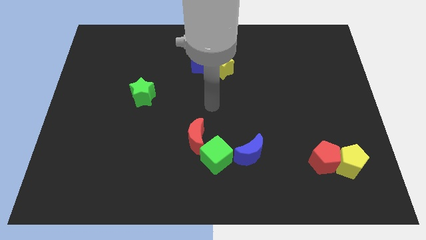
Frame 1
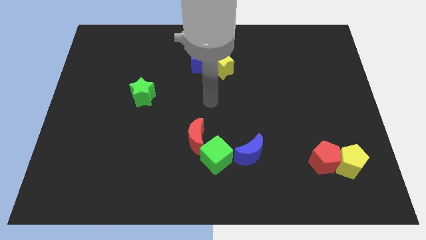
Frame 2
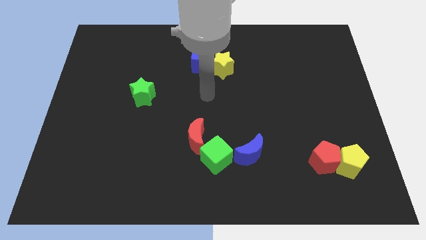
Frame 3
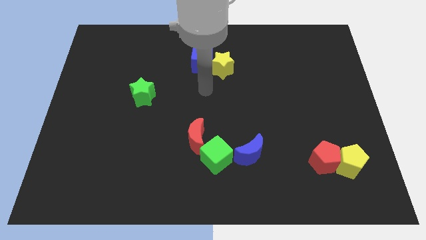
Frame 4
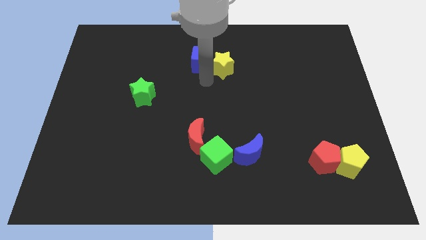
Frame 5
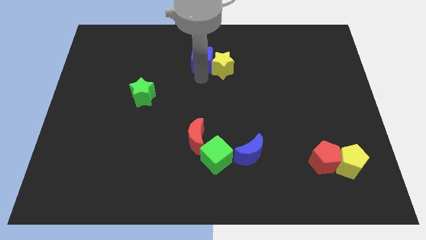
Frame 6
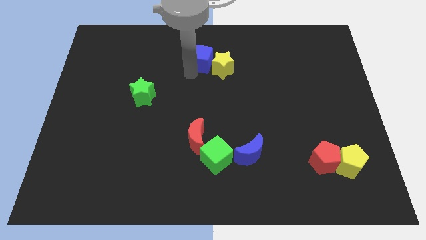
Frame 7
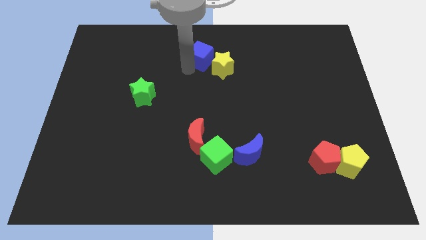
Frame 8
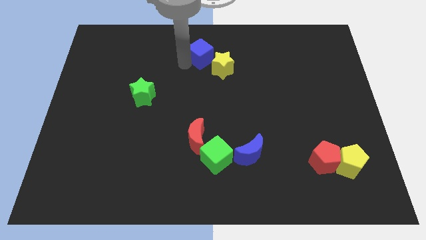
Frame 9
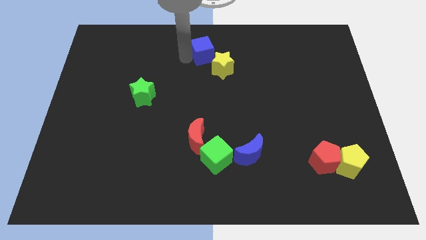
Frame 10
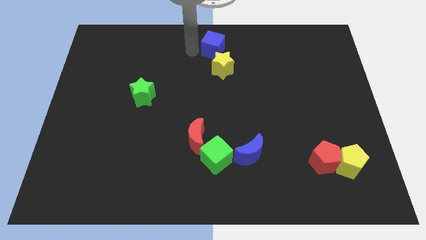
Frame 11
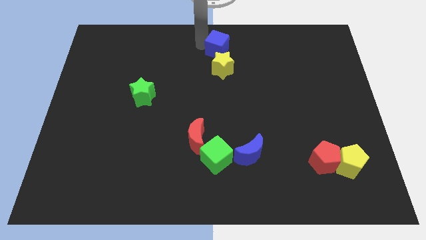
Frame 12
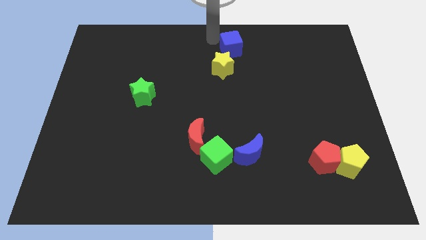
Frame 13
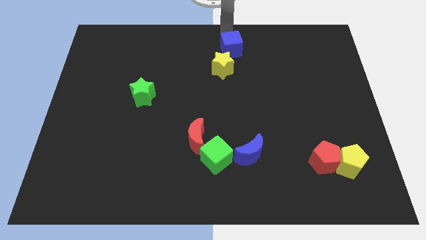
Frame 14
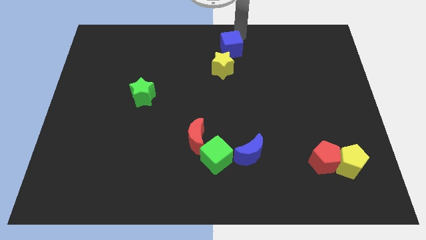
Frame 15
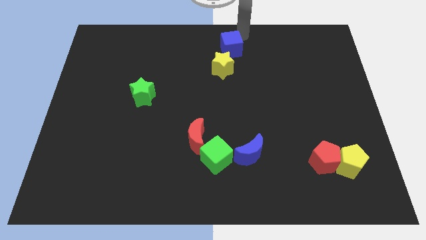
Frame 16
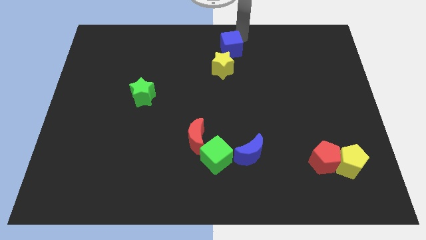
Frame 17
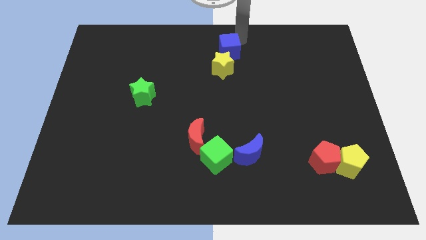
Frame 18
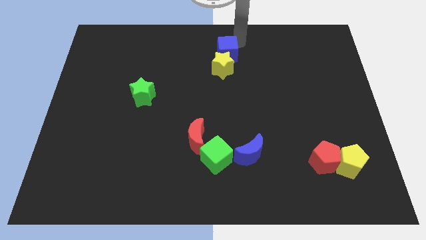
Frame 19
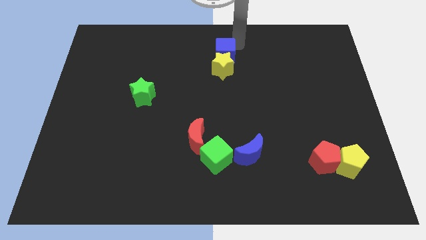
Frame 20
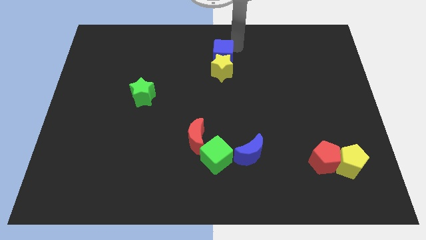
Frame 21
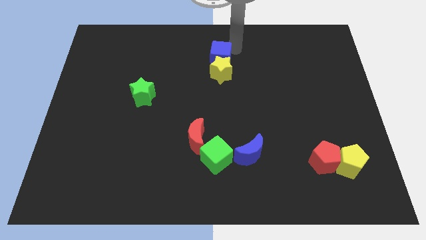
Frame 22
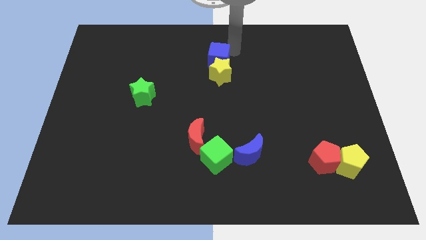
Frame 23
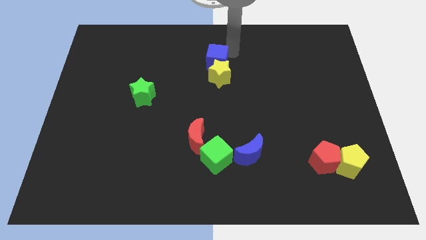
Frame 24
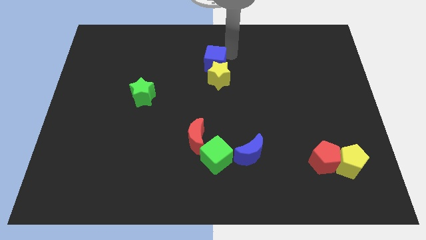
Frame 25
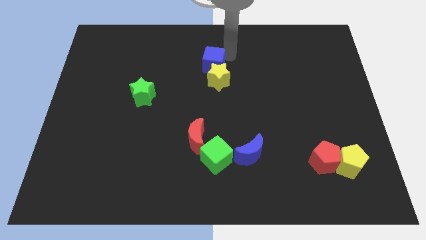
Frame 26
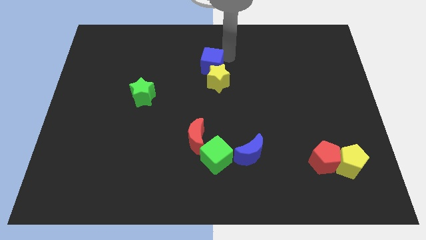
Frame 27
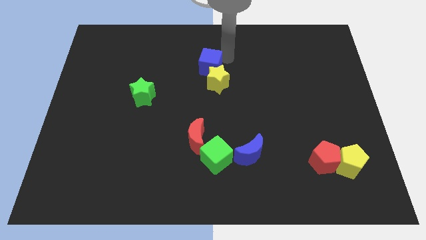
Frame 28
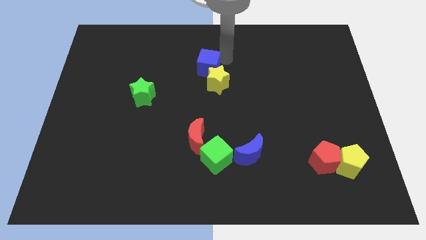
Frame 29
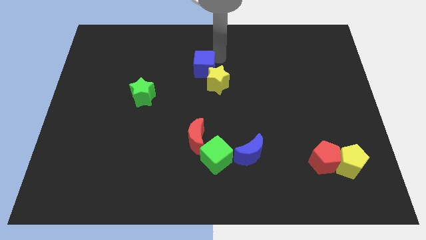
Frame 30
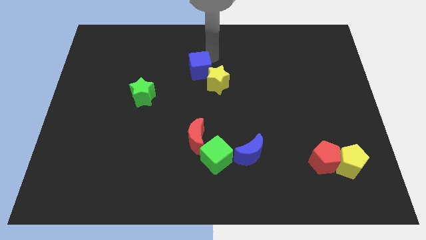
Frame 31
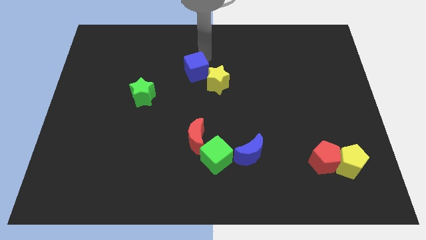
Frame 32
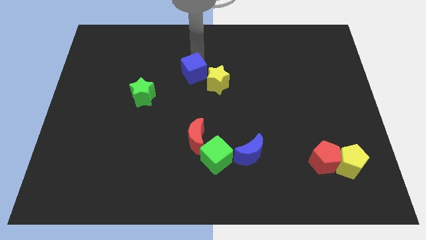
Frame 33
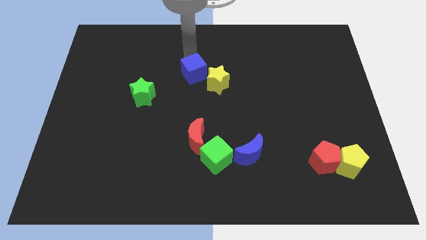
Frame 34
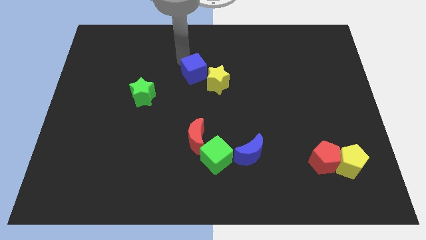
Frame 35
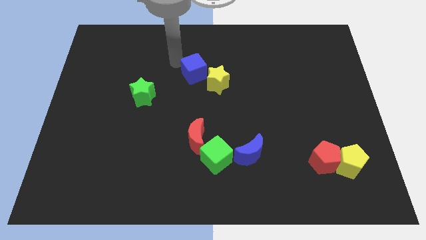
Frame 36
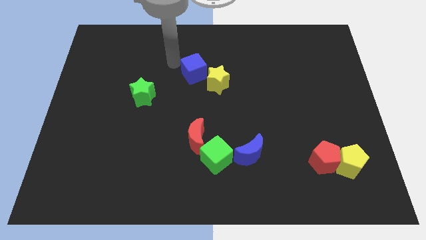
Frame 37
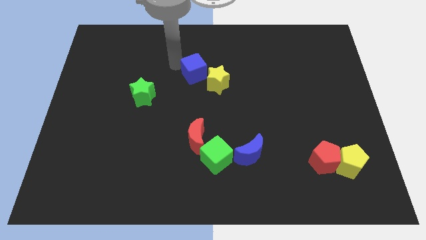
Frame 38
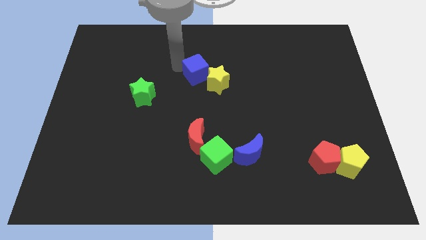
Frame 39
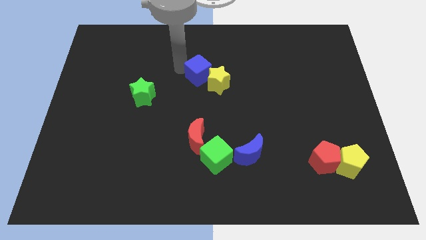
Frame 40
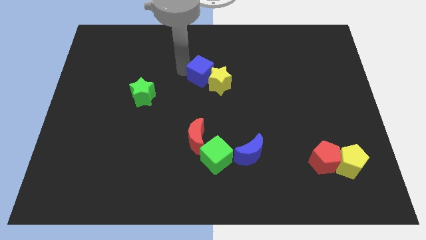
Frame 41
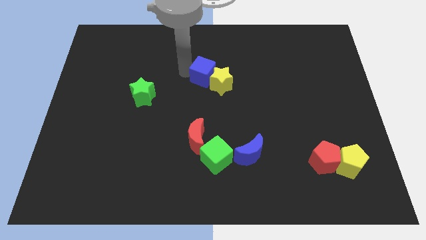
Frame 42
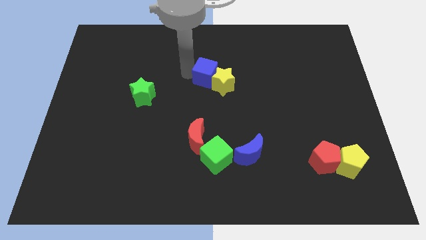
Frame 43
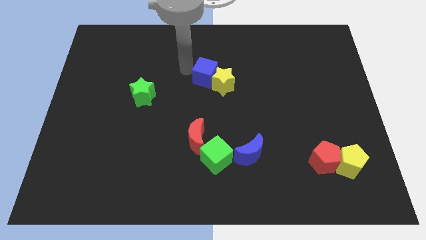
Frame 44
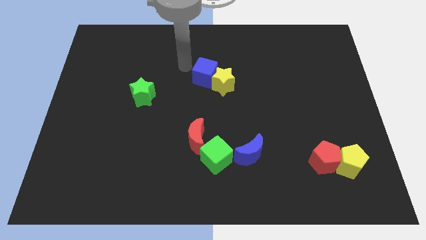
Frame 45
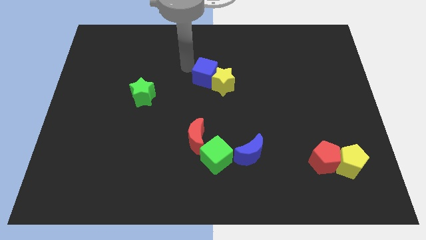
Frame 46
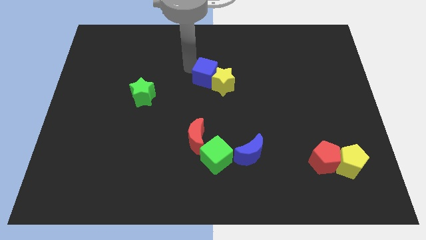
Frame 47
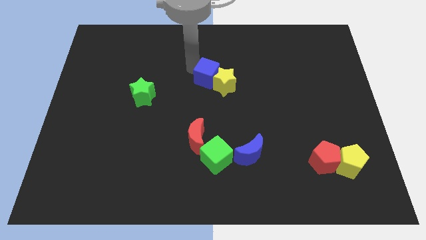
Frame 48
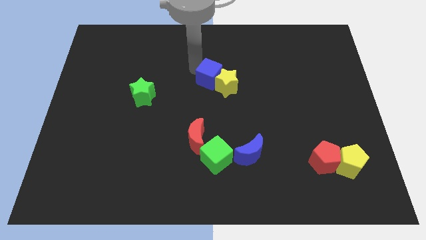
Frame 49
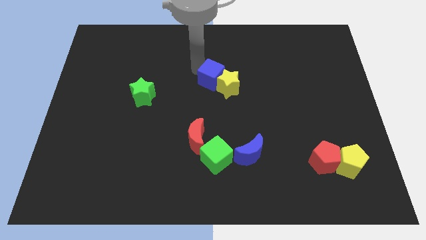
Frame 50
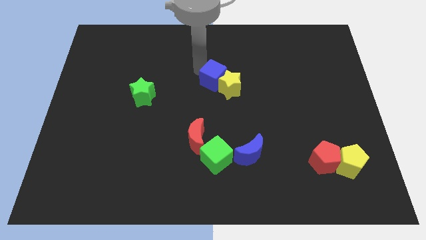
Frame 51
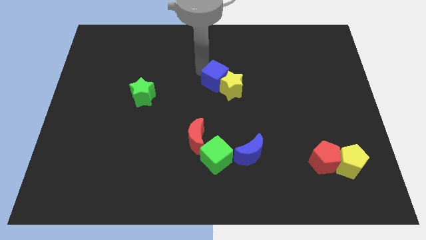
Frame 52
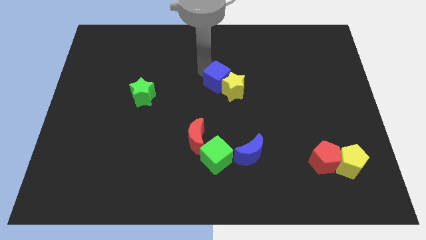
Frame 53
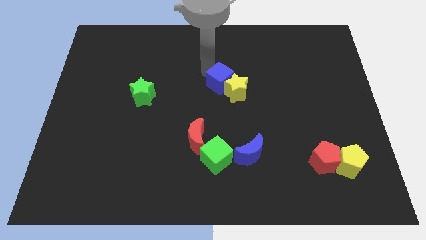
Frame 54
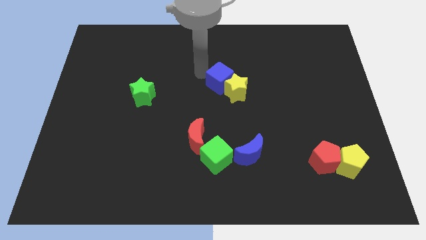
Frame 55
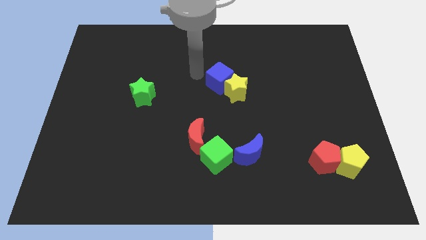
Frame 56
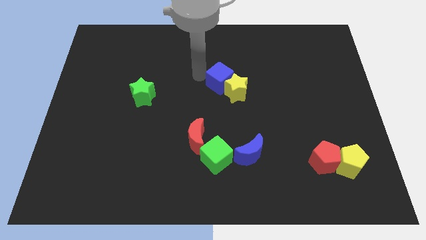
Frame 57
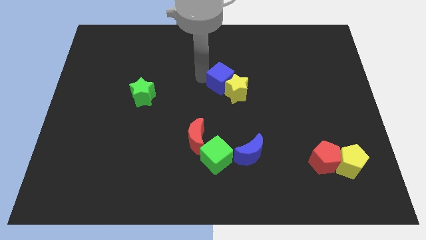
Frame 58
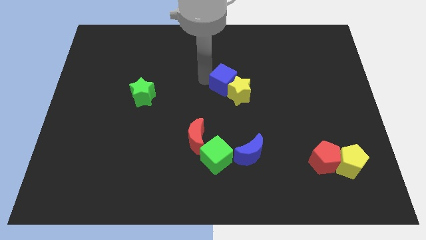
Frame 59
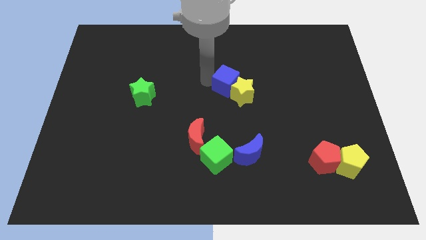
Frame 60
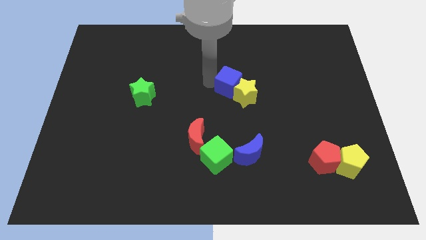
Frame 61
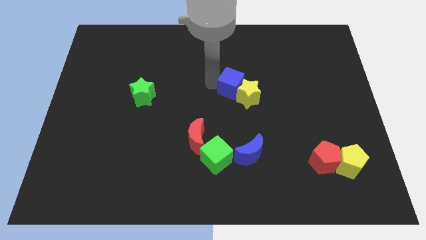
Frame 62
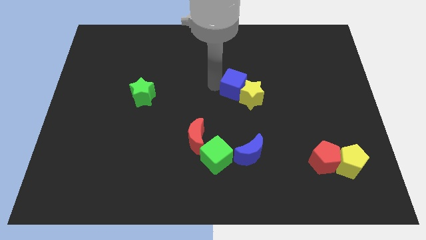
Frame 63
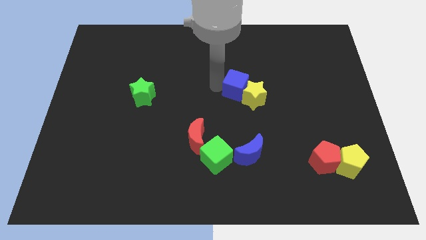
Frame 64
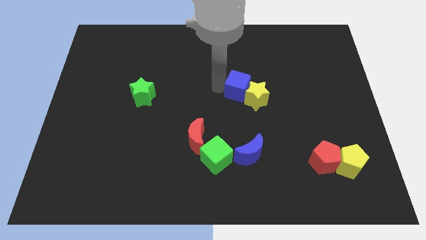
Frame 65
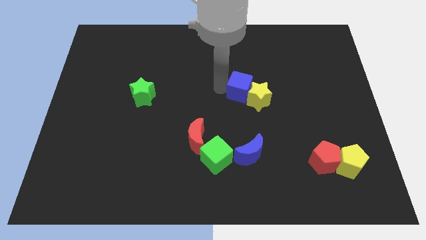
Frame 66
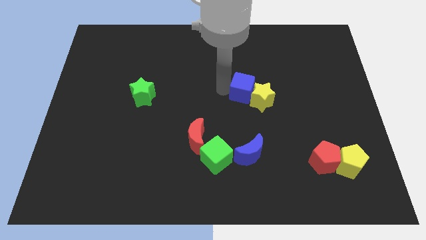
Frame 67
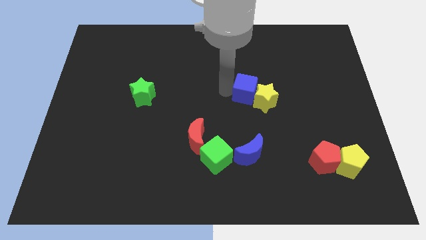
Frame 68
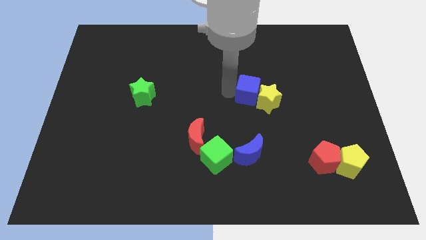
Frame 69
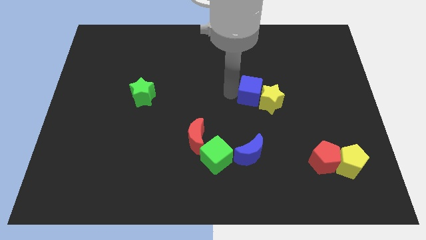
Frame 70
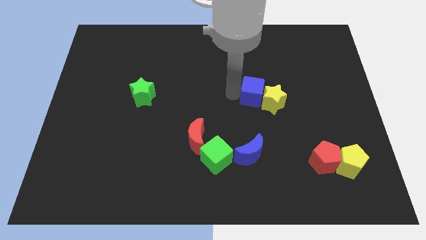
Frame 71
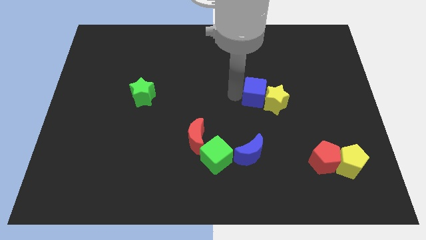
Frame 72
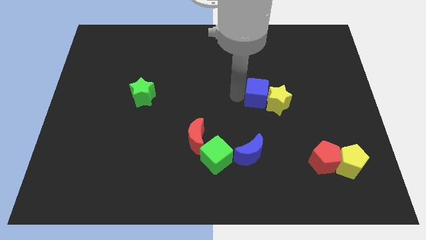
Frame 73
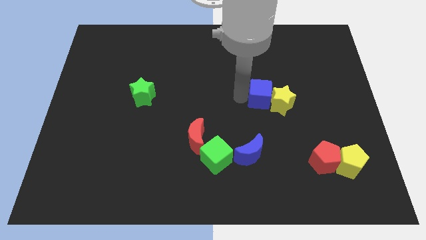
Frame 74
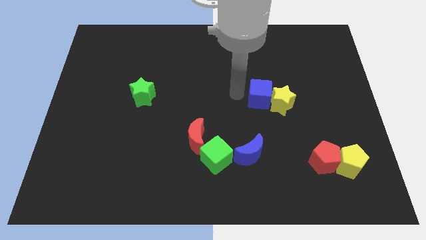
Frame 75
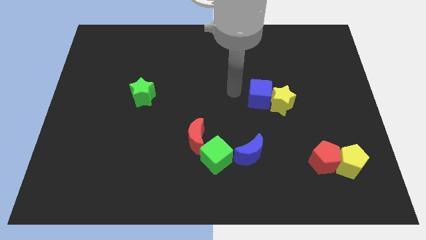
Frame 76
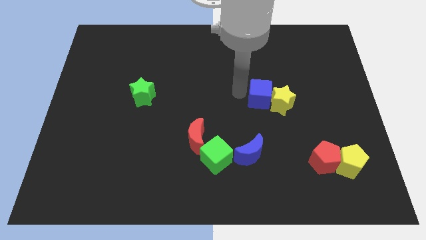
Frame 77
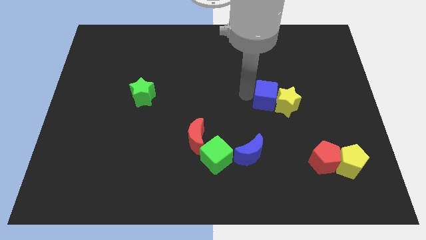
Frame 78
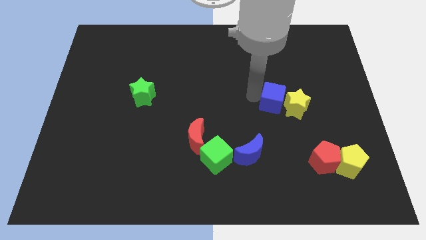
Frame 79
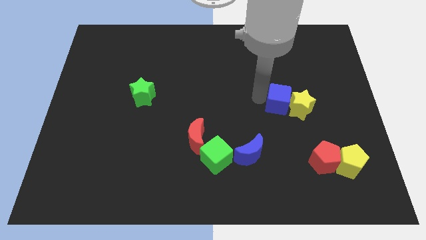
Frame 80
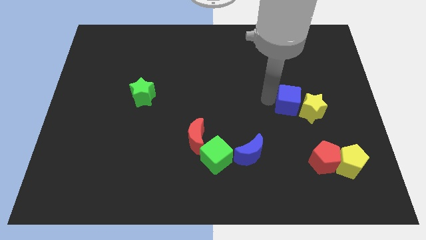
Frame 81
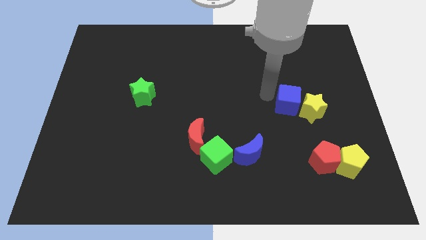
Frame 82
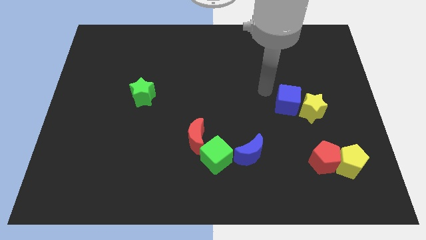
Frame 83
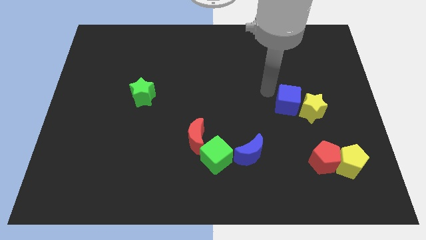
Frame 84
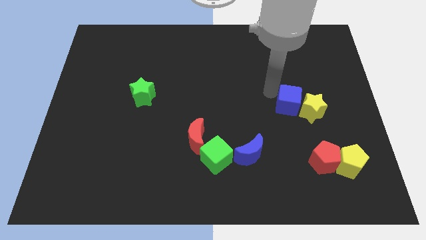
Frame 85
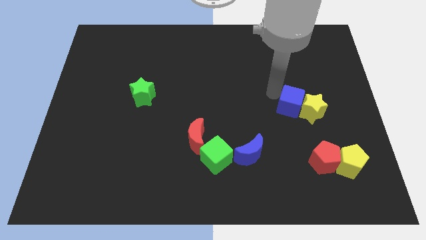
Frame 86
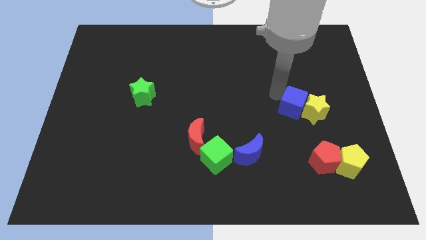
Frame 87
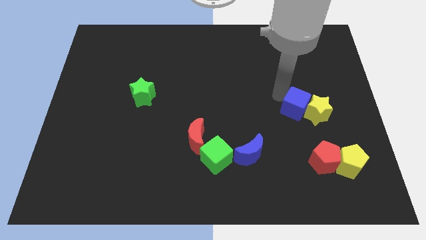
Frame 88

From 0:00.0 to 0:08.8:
push the blue cube to the top side of the red pentagon
